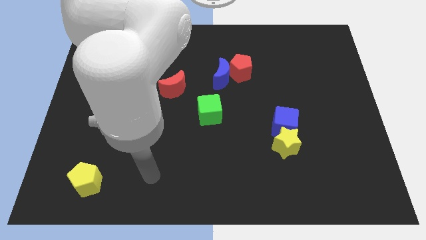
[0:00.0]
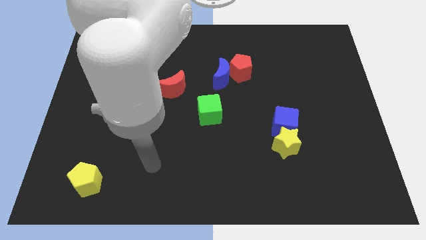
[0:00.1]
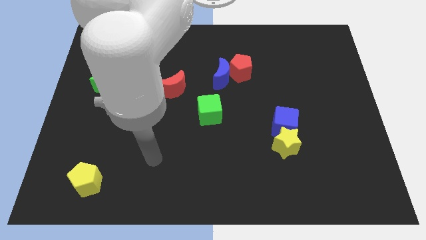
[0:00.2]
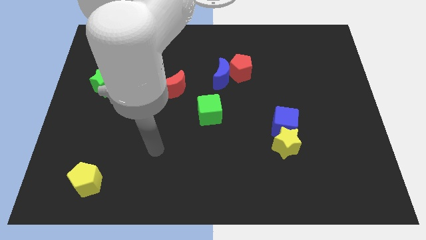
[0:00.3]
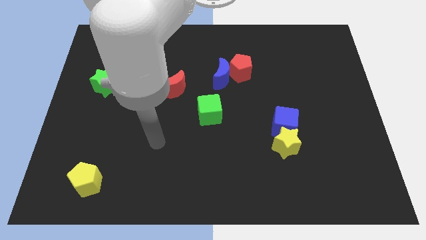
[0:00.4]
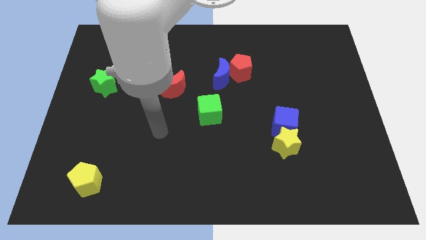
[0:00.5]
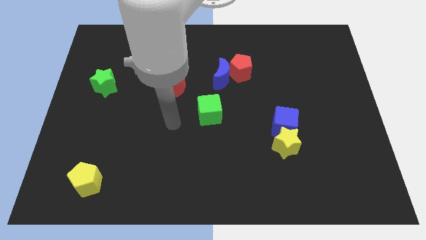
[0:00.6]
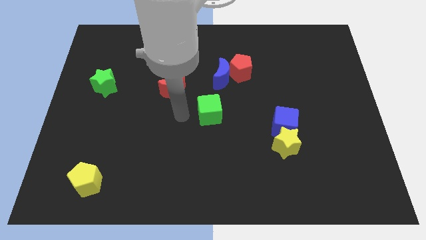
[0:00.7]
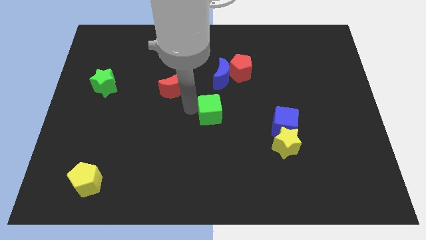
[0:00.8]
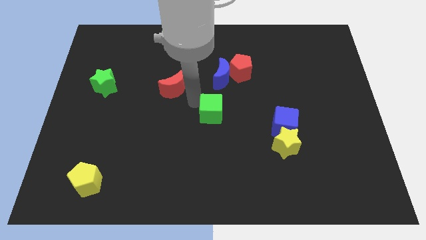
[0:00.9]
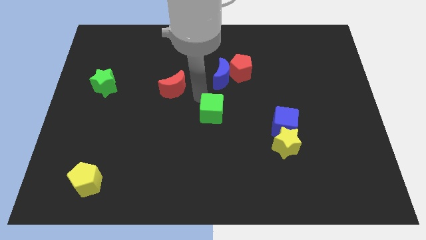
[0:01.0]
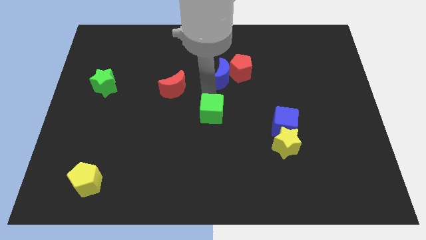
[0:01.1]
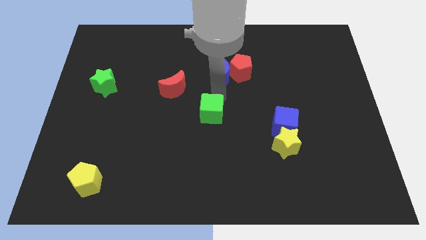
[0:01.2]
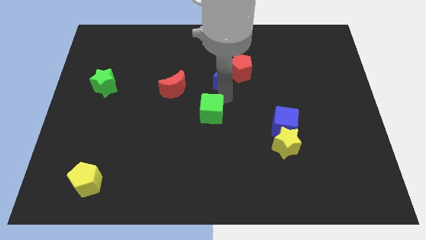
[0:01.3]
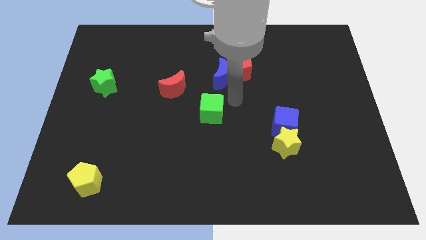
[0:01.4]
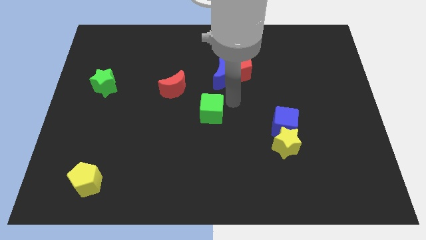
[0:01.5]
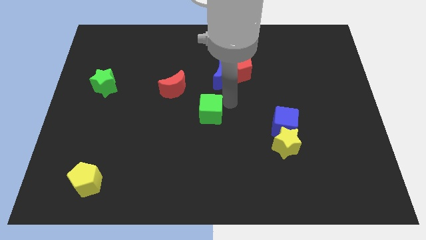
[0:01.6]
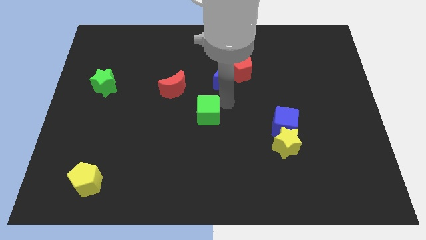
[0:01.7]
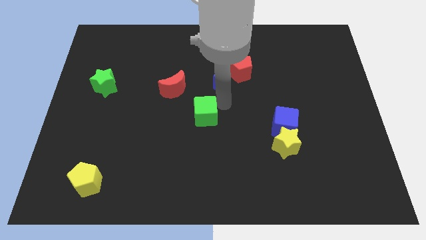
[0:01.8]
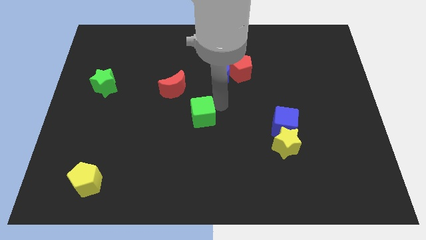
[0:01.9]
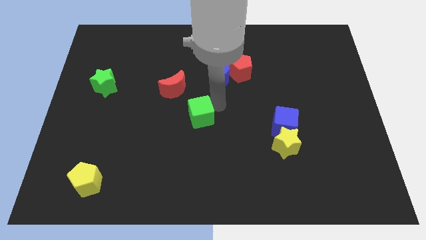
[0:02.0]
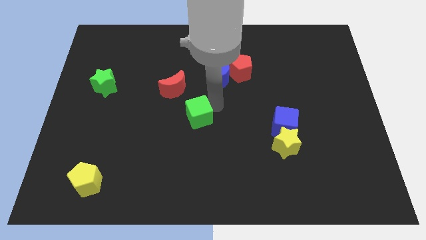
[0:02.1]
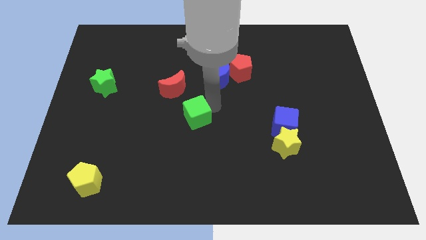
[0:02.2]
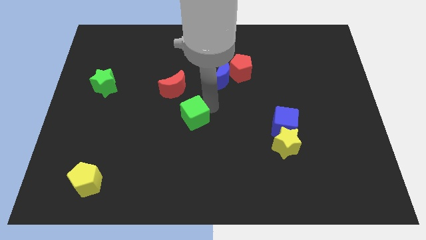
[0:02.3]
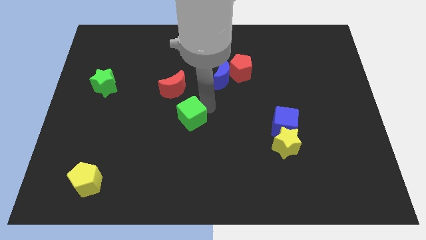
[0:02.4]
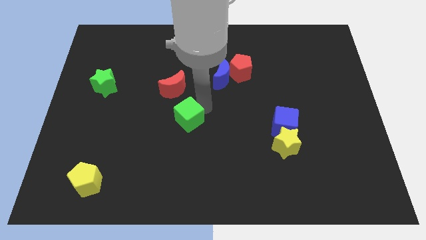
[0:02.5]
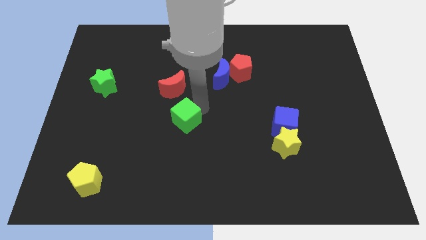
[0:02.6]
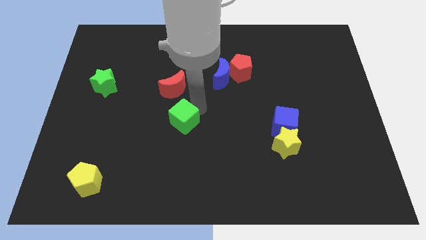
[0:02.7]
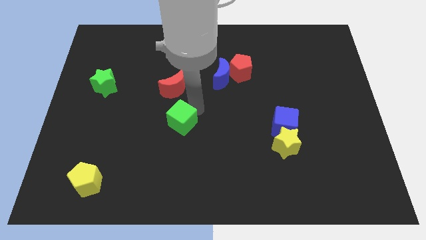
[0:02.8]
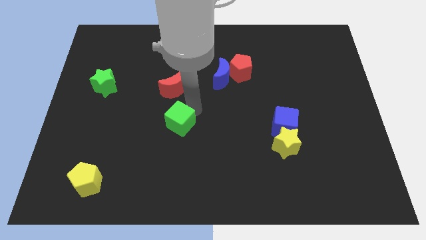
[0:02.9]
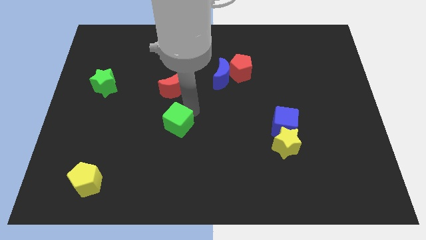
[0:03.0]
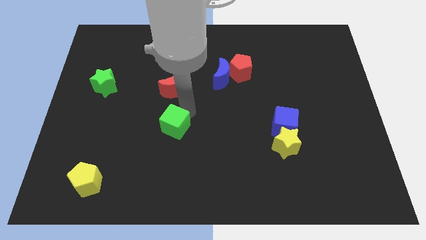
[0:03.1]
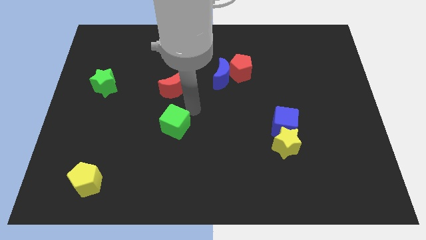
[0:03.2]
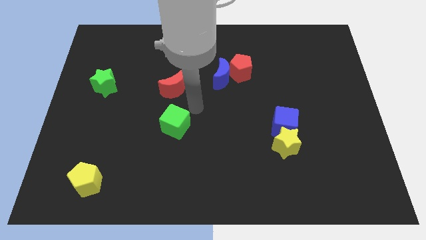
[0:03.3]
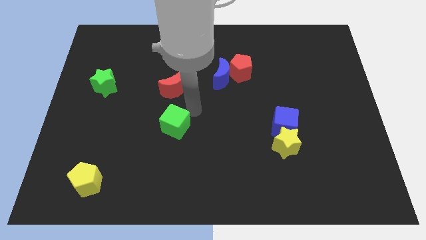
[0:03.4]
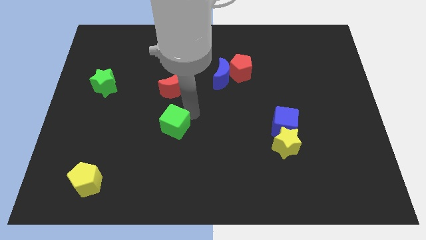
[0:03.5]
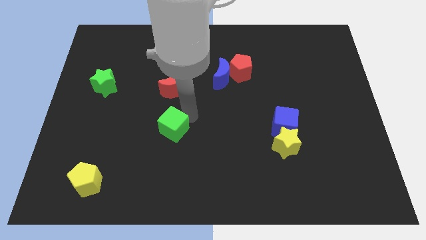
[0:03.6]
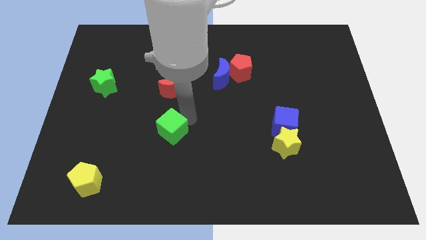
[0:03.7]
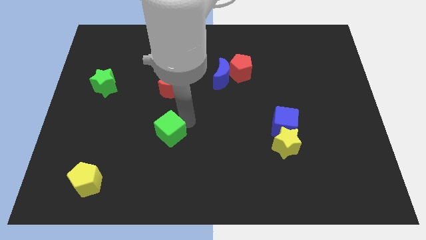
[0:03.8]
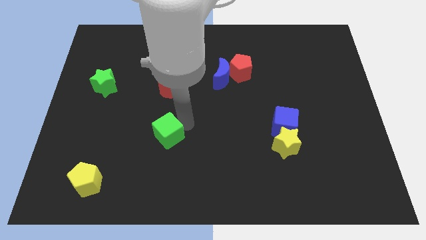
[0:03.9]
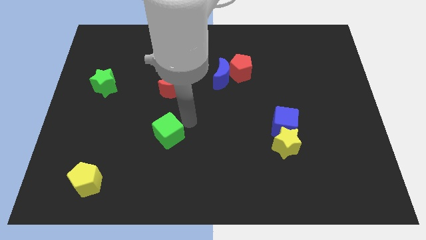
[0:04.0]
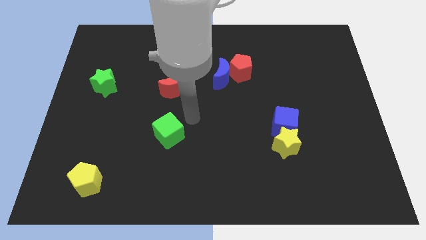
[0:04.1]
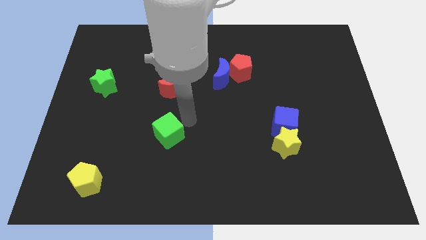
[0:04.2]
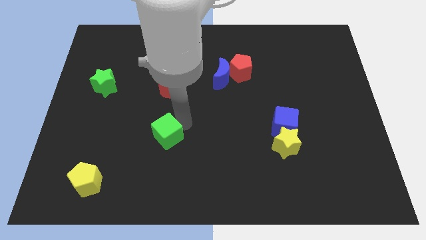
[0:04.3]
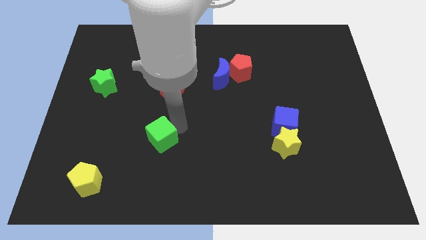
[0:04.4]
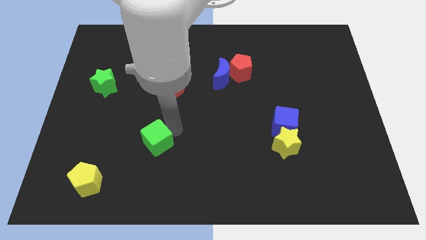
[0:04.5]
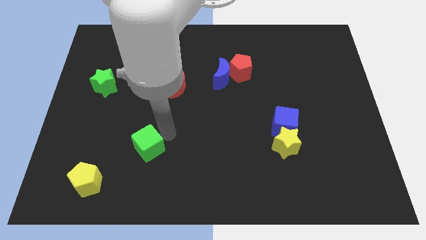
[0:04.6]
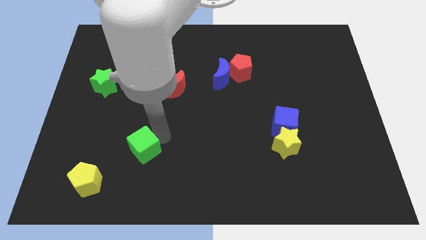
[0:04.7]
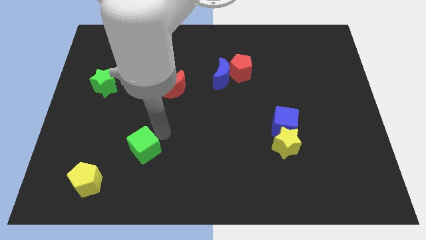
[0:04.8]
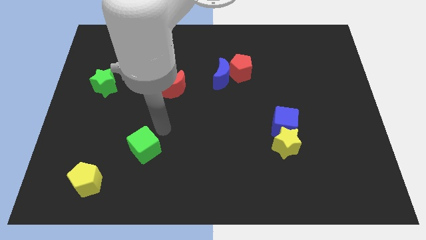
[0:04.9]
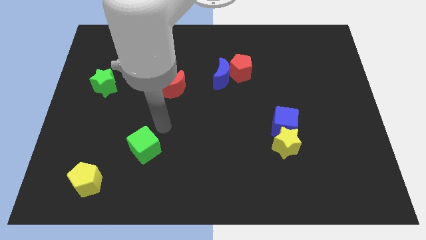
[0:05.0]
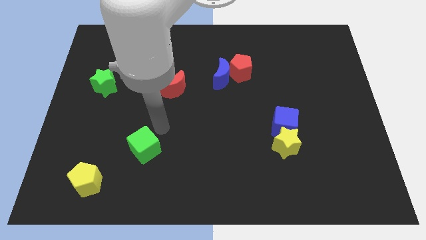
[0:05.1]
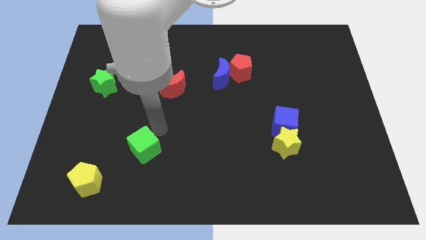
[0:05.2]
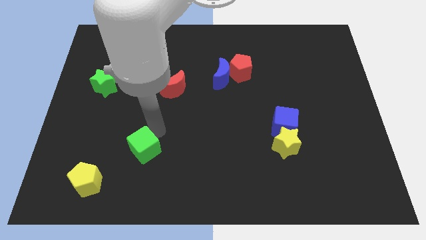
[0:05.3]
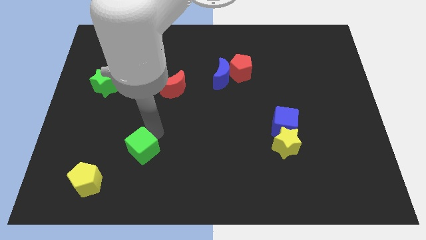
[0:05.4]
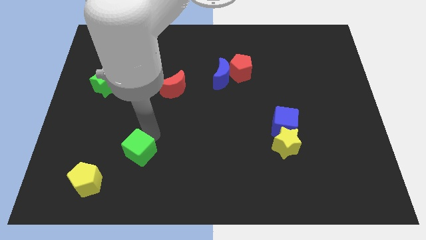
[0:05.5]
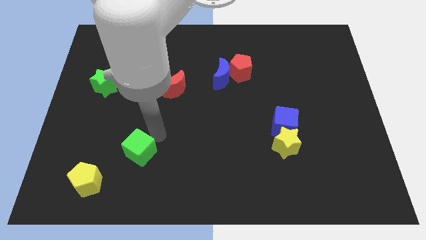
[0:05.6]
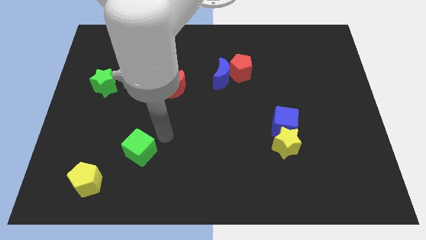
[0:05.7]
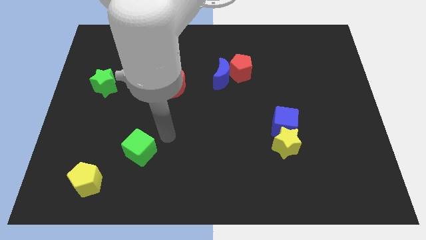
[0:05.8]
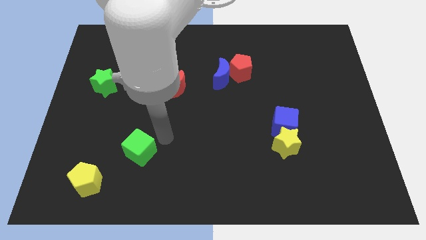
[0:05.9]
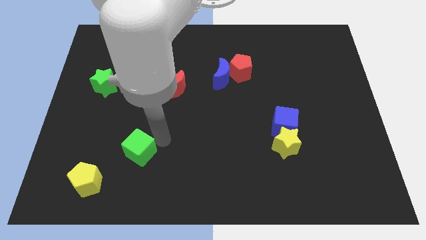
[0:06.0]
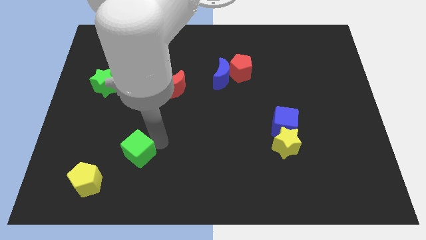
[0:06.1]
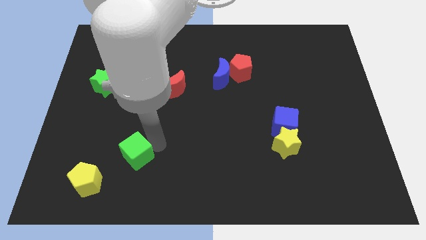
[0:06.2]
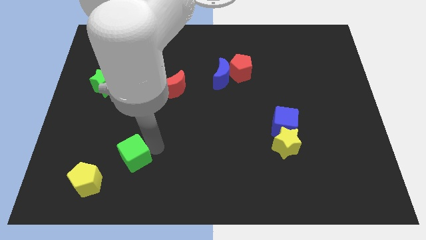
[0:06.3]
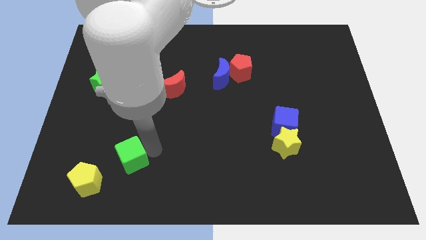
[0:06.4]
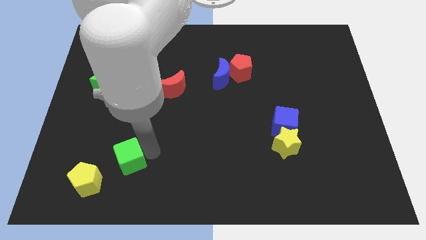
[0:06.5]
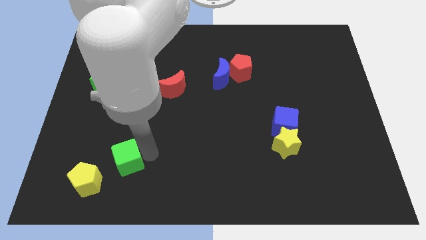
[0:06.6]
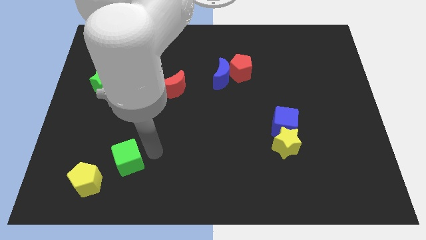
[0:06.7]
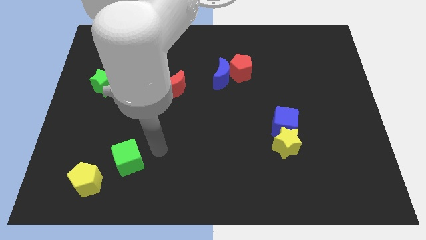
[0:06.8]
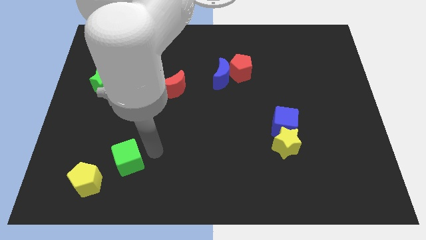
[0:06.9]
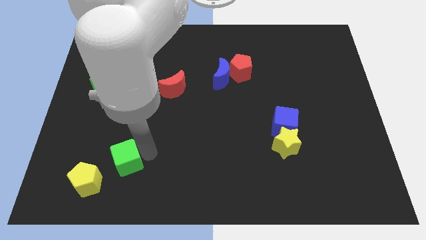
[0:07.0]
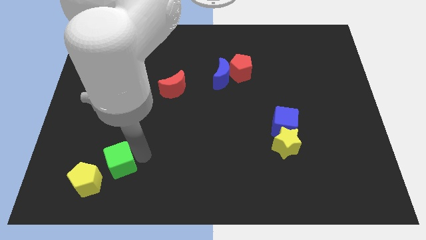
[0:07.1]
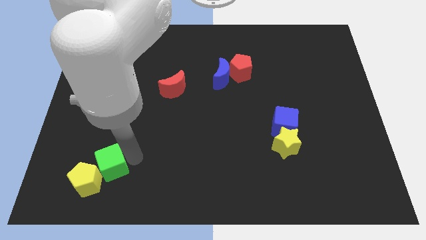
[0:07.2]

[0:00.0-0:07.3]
push the green cube towards the yellow pentagon

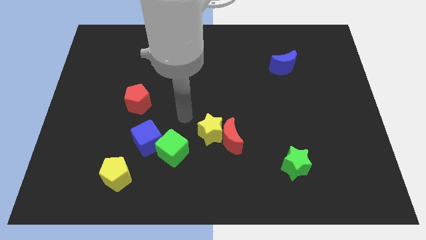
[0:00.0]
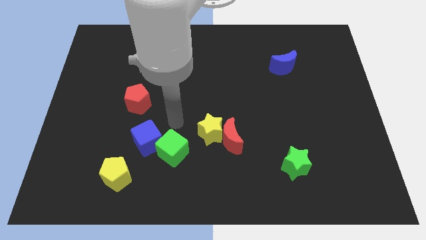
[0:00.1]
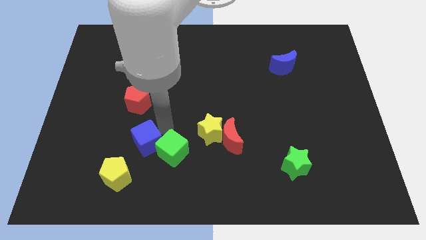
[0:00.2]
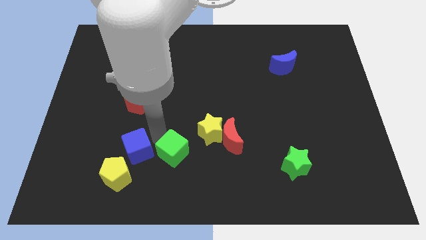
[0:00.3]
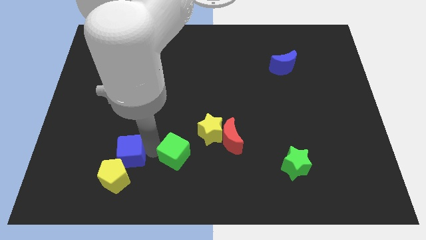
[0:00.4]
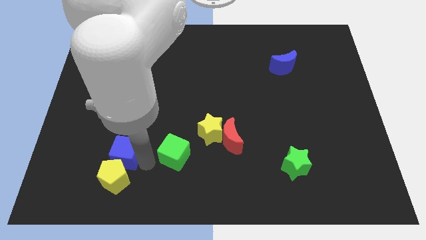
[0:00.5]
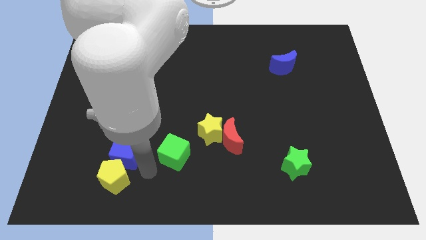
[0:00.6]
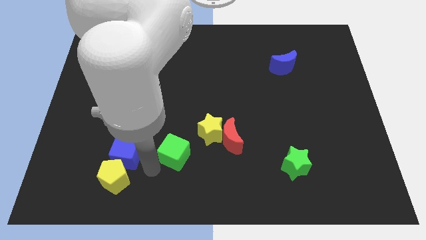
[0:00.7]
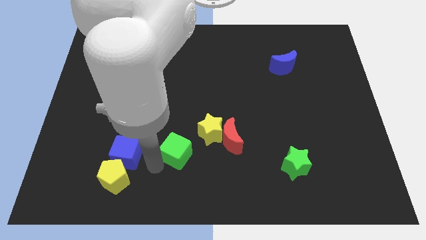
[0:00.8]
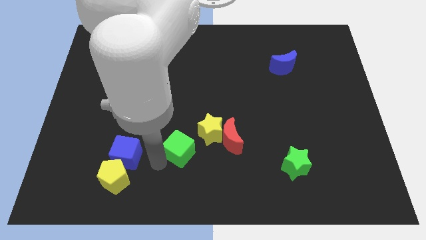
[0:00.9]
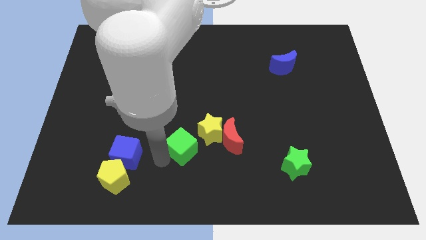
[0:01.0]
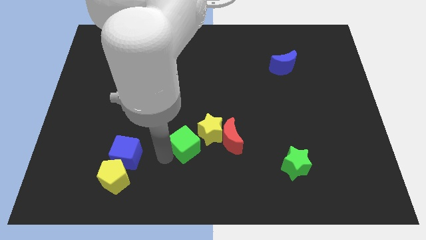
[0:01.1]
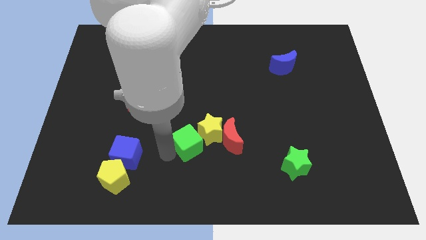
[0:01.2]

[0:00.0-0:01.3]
put the green cube close to the yellow star
